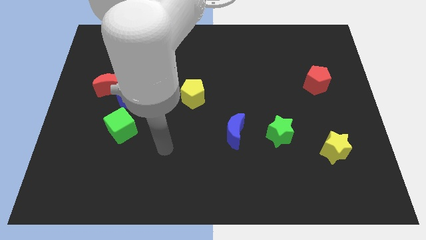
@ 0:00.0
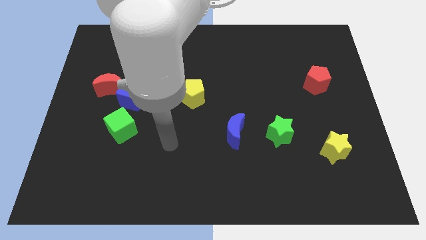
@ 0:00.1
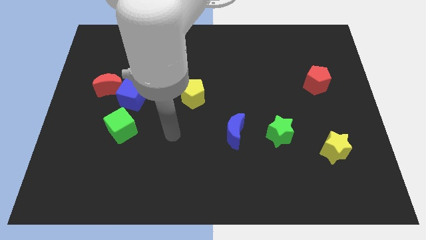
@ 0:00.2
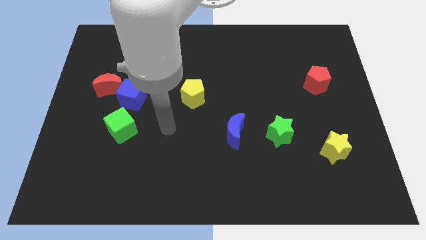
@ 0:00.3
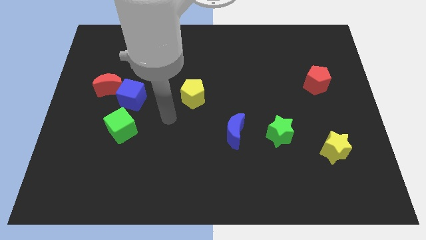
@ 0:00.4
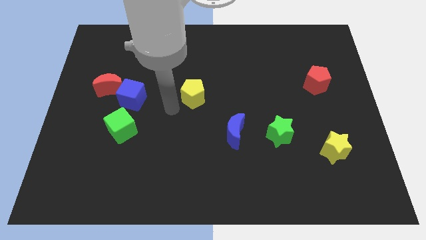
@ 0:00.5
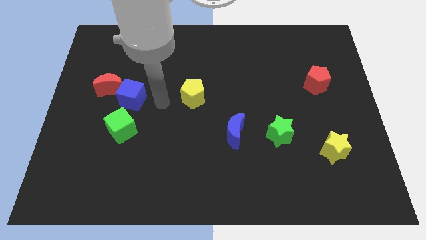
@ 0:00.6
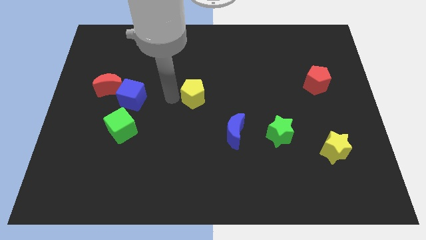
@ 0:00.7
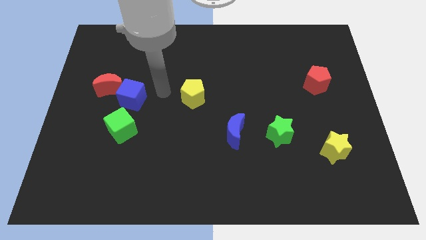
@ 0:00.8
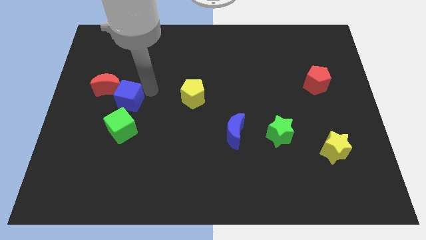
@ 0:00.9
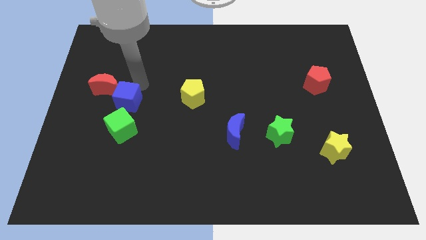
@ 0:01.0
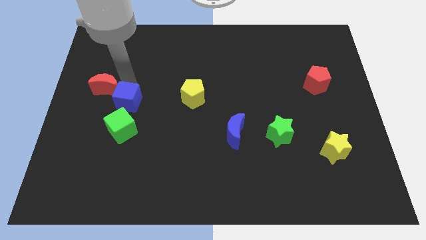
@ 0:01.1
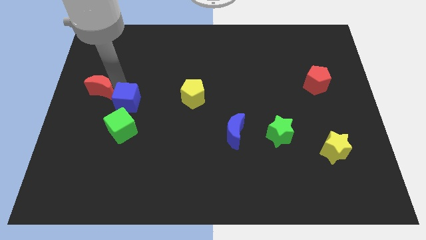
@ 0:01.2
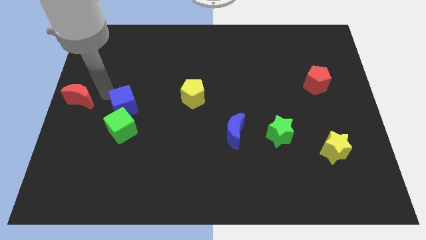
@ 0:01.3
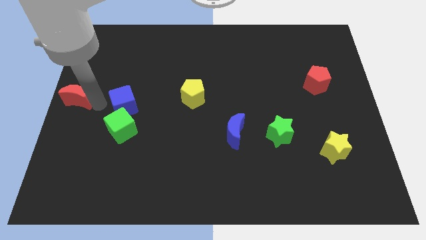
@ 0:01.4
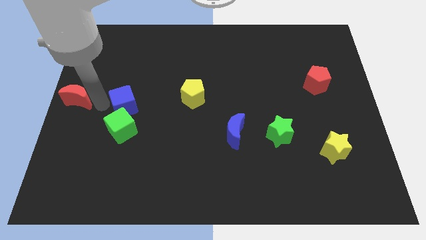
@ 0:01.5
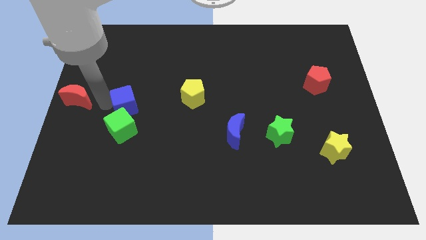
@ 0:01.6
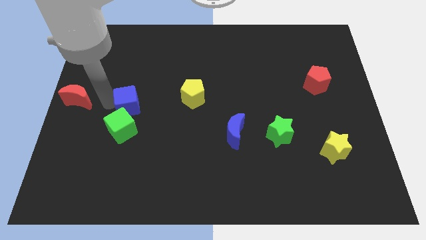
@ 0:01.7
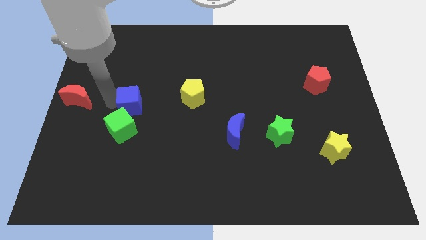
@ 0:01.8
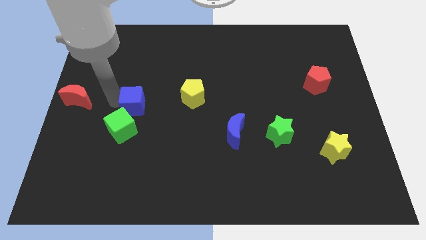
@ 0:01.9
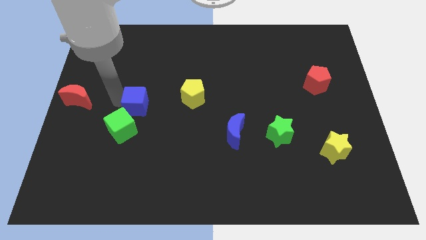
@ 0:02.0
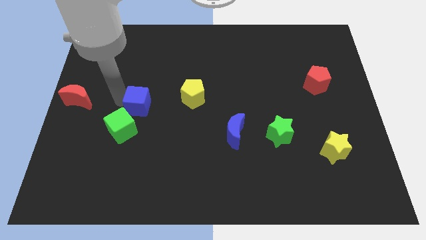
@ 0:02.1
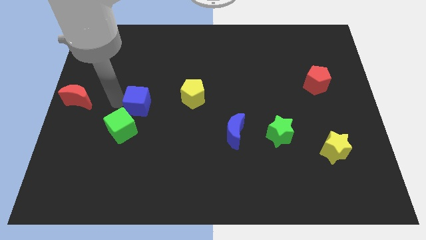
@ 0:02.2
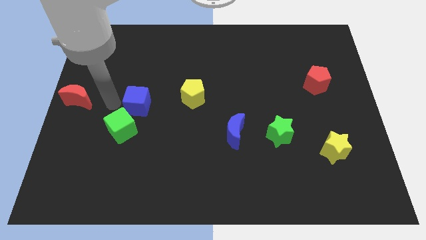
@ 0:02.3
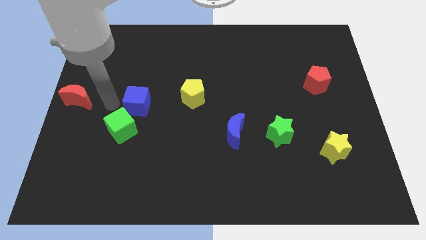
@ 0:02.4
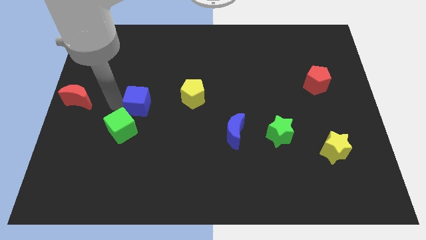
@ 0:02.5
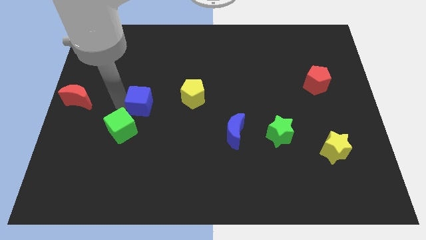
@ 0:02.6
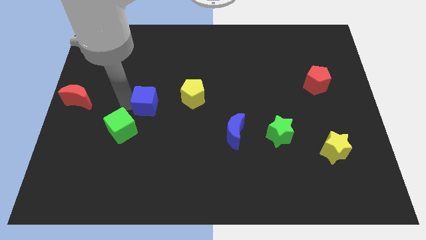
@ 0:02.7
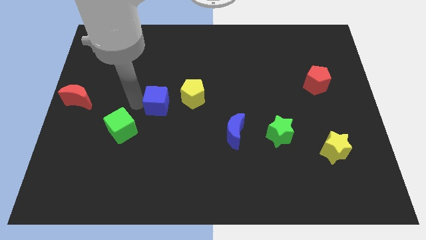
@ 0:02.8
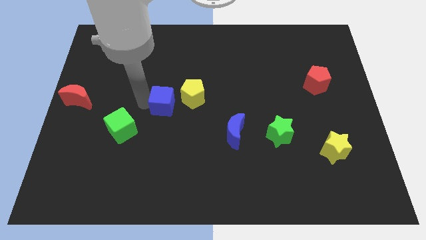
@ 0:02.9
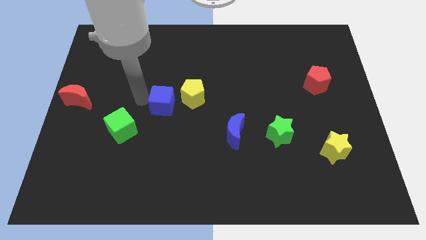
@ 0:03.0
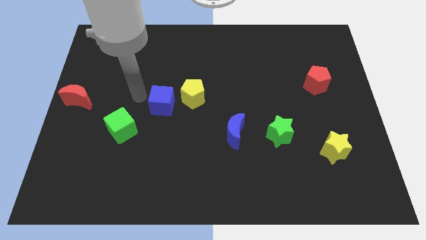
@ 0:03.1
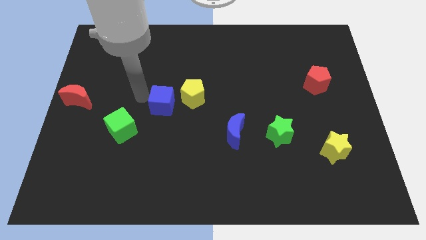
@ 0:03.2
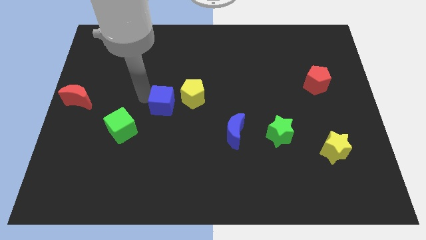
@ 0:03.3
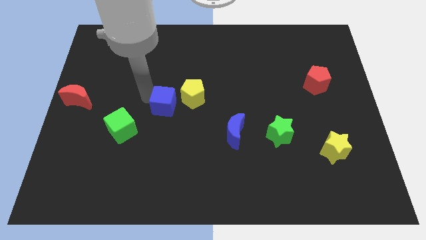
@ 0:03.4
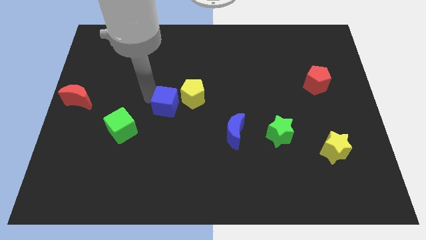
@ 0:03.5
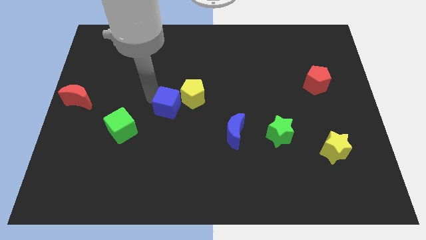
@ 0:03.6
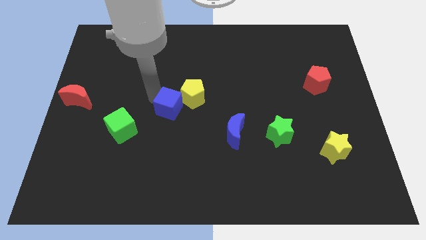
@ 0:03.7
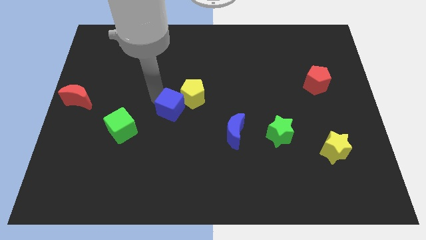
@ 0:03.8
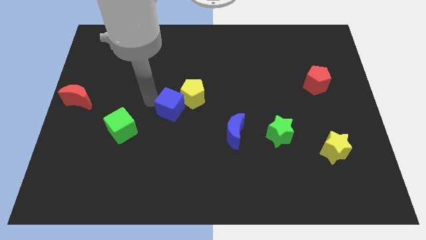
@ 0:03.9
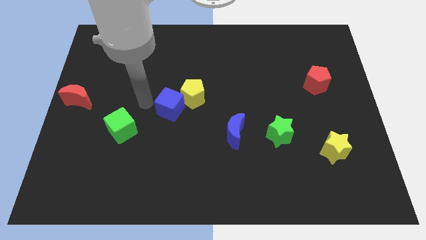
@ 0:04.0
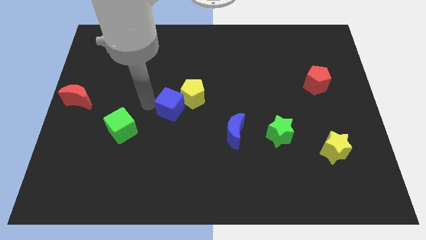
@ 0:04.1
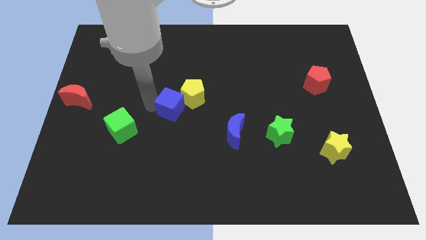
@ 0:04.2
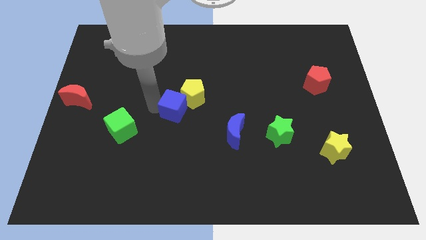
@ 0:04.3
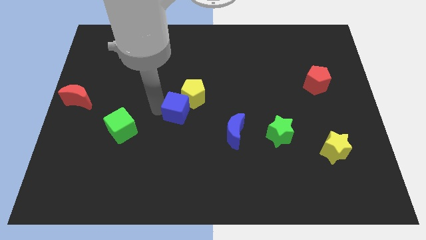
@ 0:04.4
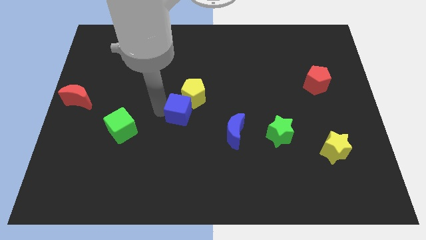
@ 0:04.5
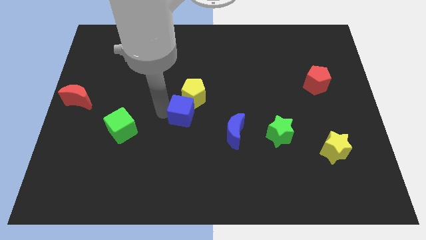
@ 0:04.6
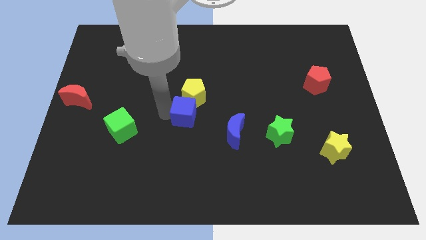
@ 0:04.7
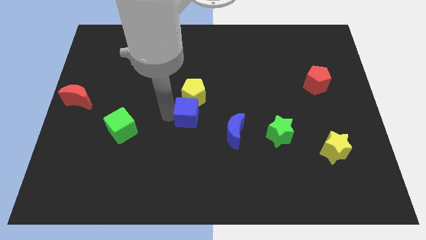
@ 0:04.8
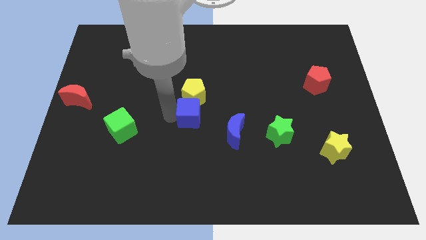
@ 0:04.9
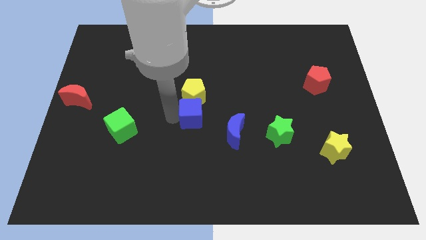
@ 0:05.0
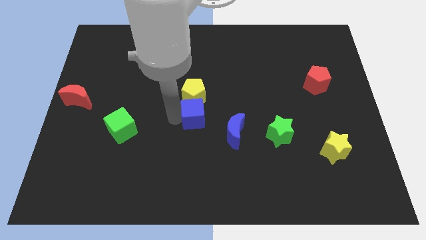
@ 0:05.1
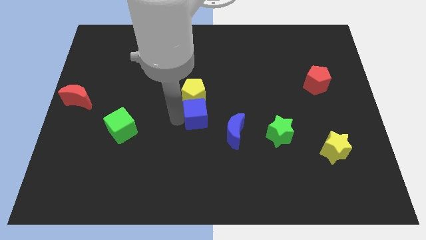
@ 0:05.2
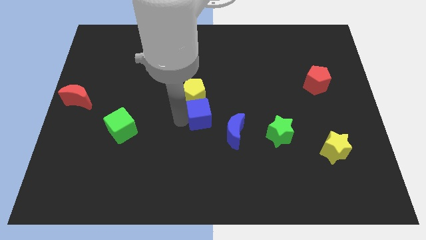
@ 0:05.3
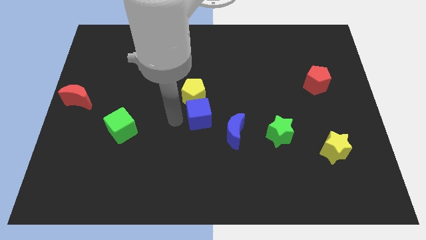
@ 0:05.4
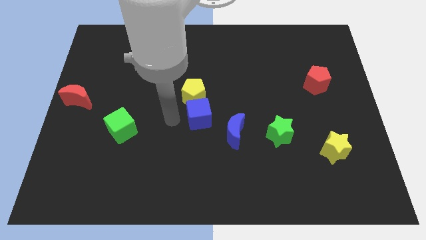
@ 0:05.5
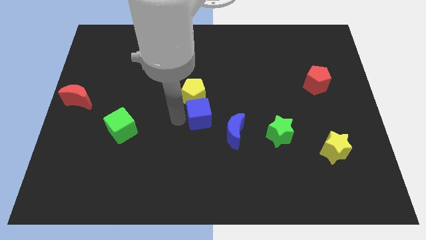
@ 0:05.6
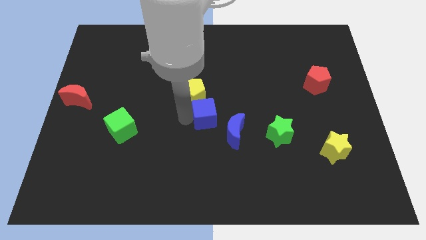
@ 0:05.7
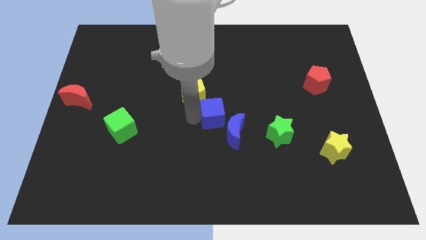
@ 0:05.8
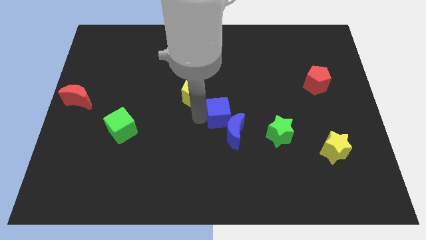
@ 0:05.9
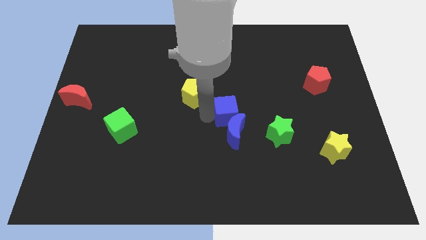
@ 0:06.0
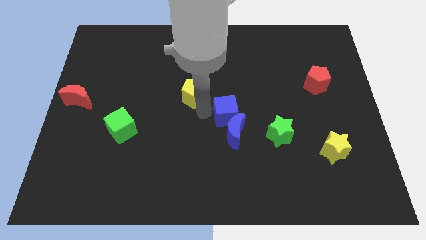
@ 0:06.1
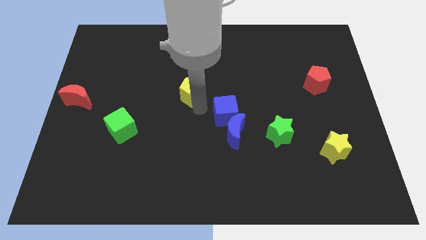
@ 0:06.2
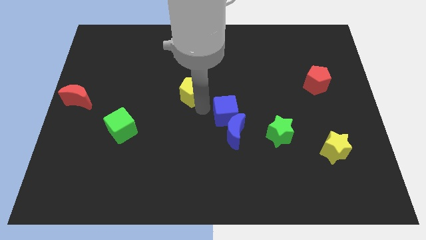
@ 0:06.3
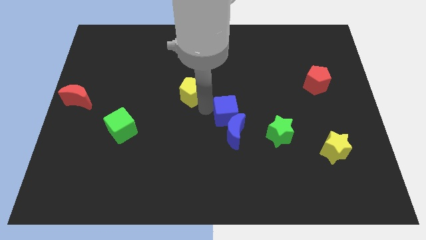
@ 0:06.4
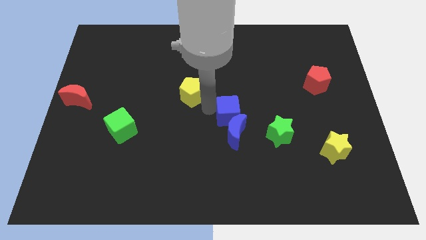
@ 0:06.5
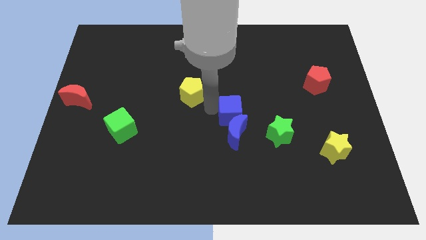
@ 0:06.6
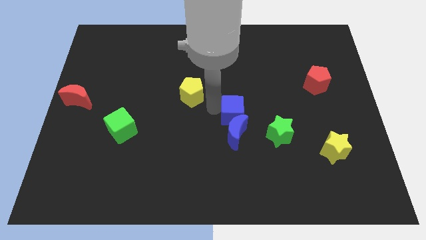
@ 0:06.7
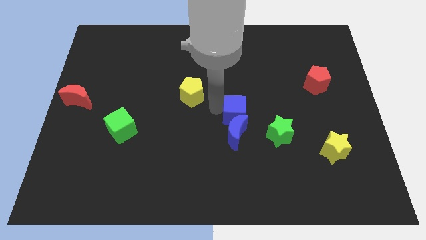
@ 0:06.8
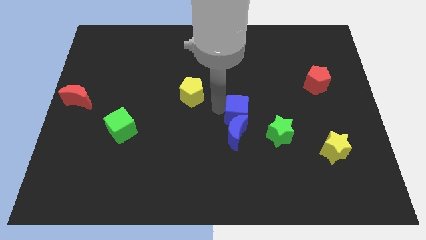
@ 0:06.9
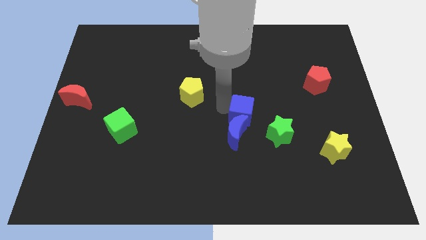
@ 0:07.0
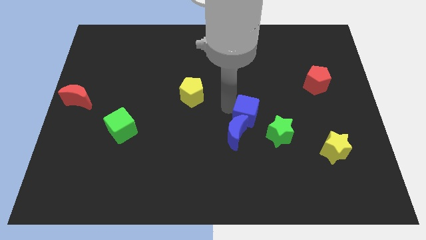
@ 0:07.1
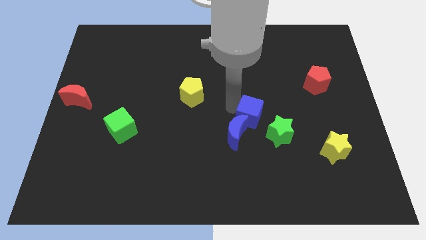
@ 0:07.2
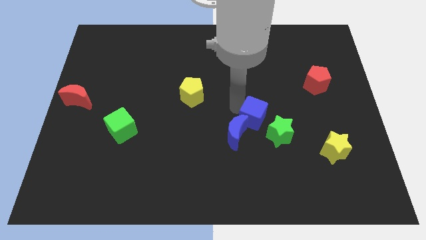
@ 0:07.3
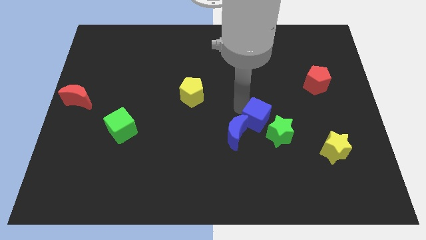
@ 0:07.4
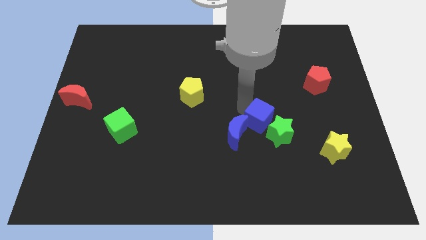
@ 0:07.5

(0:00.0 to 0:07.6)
push the blue cube to the green star

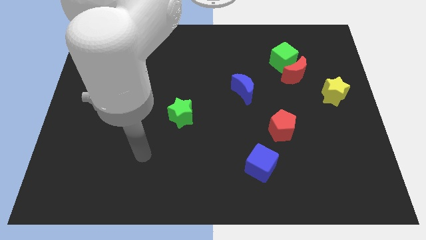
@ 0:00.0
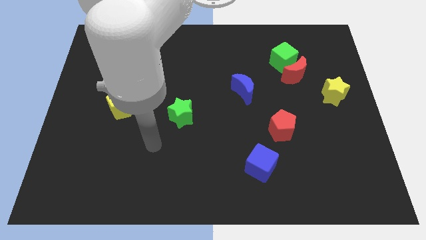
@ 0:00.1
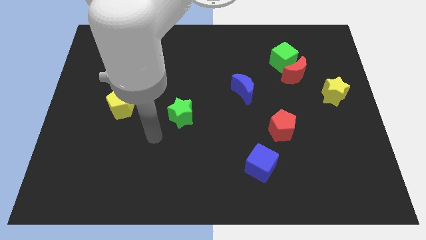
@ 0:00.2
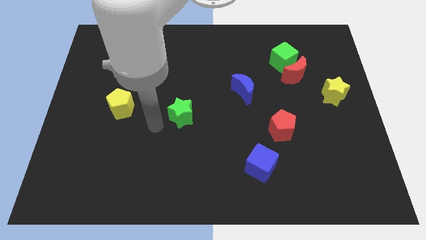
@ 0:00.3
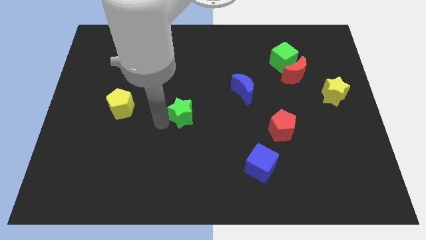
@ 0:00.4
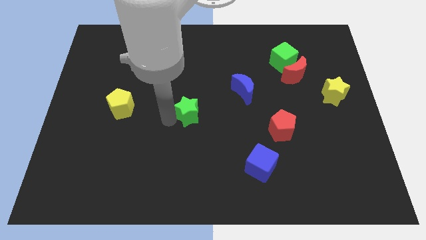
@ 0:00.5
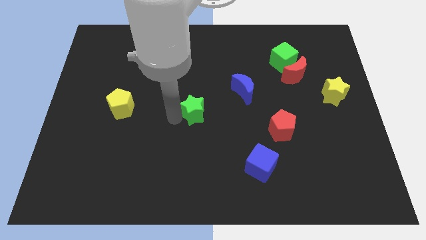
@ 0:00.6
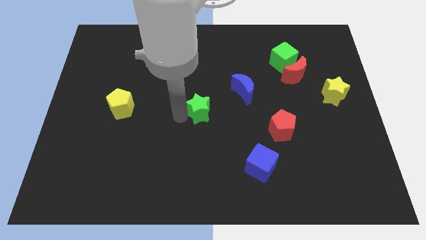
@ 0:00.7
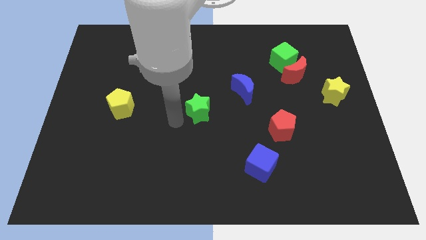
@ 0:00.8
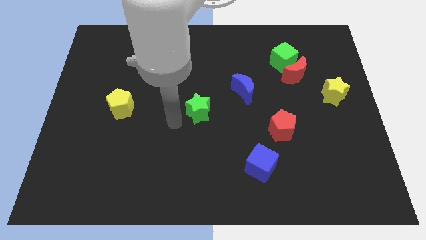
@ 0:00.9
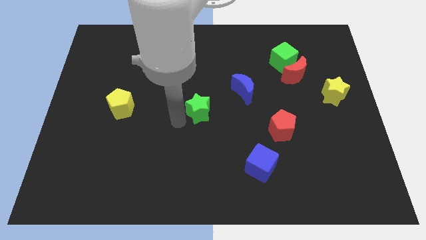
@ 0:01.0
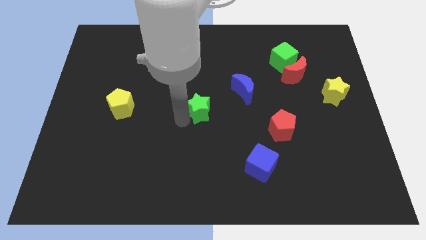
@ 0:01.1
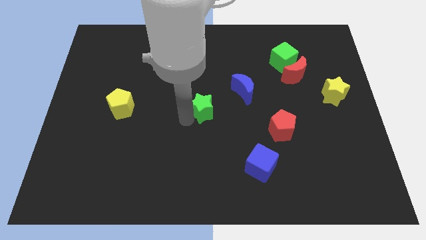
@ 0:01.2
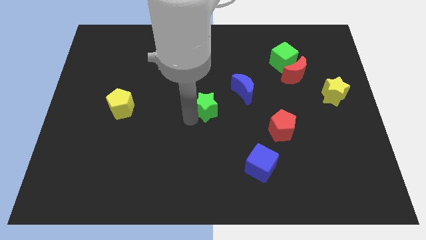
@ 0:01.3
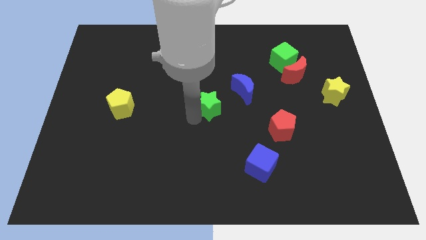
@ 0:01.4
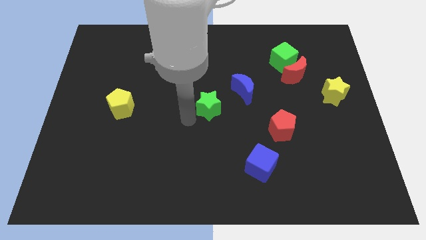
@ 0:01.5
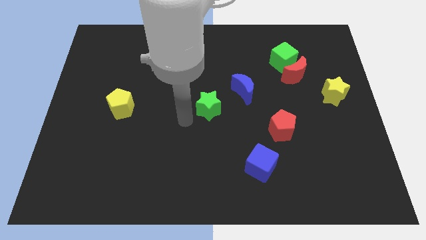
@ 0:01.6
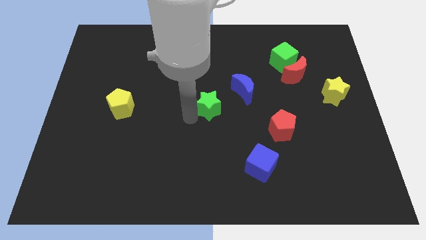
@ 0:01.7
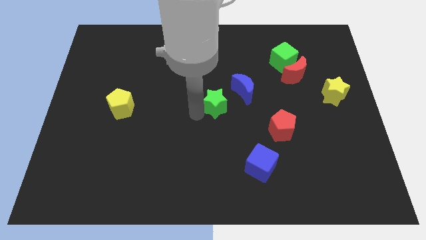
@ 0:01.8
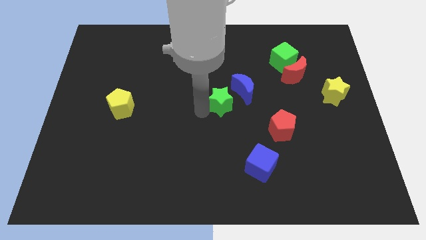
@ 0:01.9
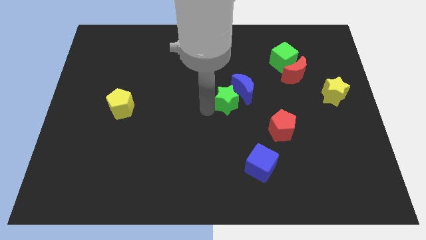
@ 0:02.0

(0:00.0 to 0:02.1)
slide the green star towards the blue moon
